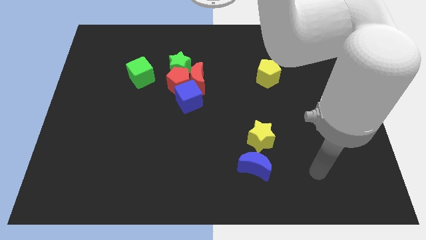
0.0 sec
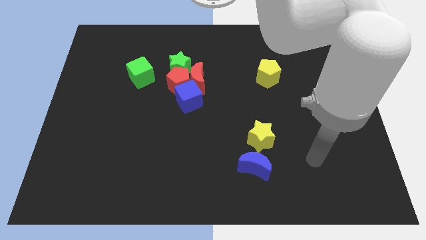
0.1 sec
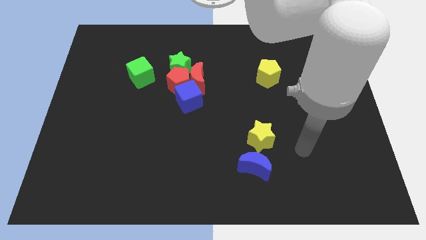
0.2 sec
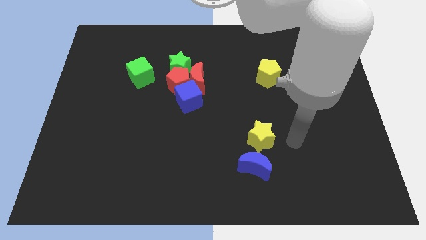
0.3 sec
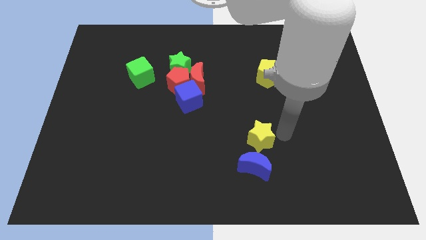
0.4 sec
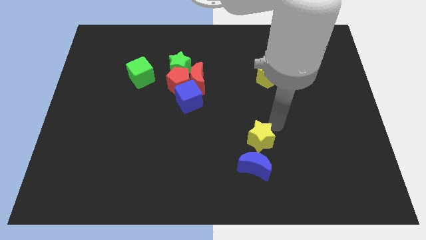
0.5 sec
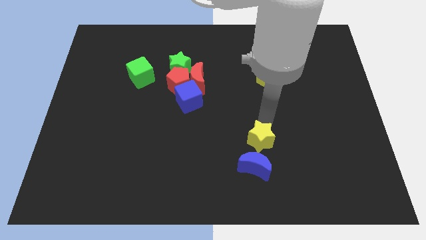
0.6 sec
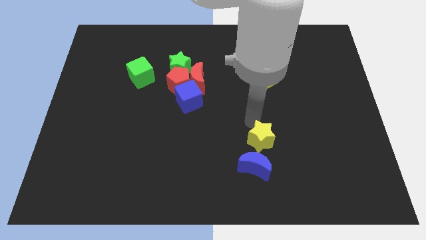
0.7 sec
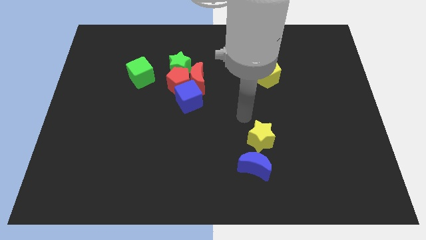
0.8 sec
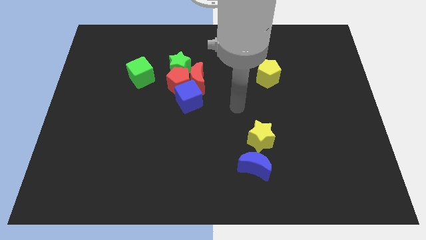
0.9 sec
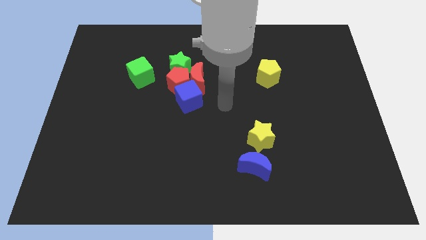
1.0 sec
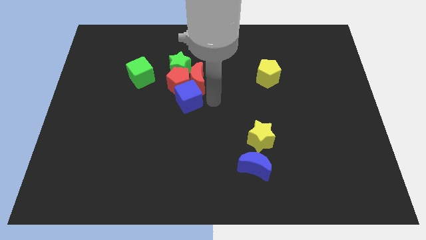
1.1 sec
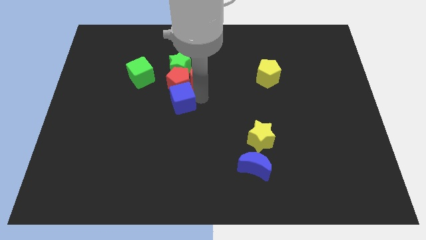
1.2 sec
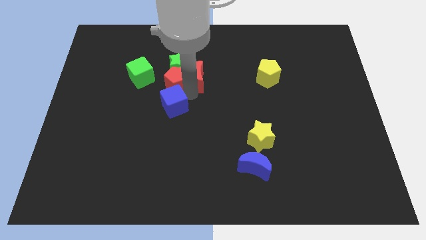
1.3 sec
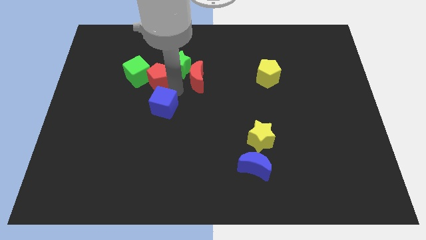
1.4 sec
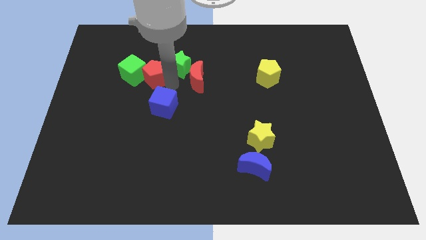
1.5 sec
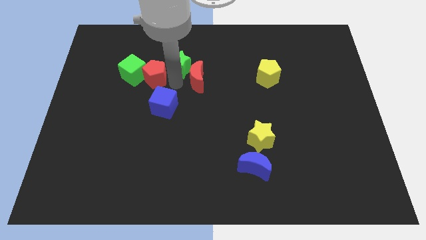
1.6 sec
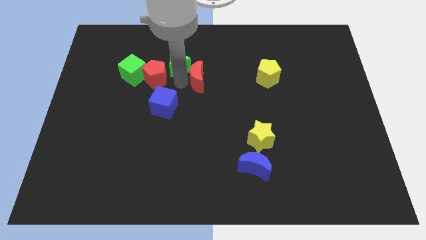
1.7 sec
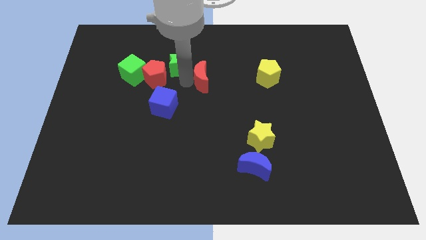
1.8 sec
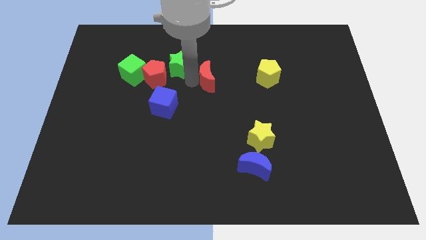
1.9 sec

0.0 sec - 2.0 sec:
pull the red moon apart from the group

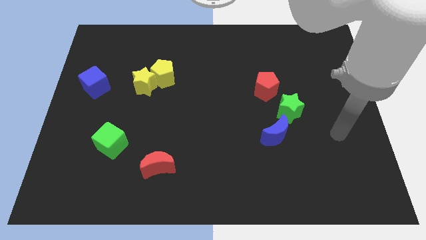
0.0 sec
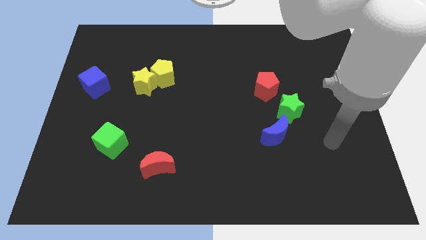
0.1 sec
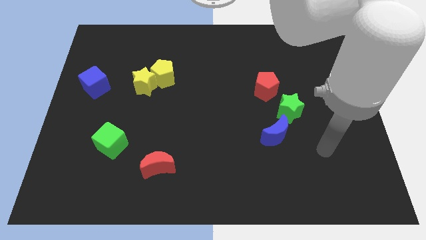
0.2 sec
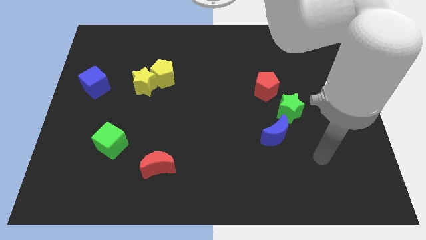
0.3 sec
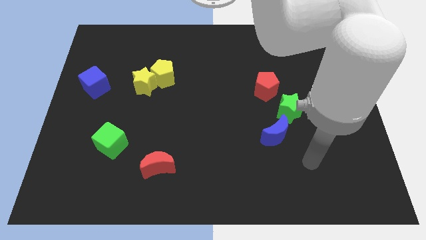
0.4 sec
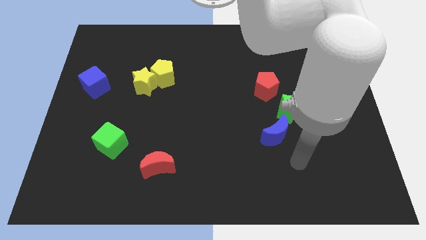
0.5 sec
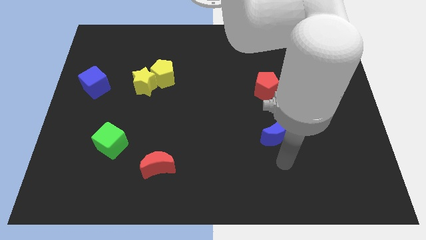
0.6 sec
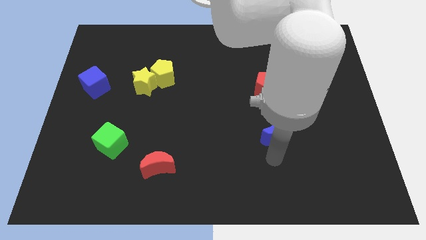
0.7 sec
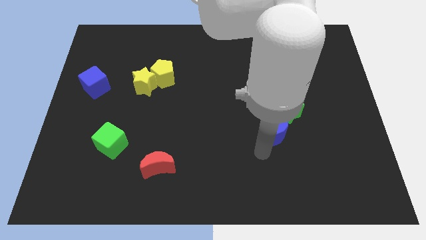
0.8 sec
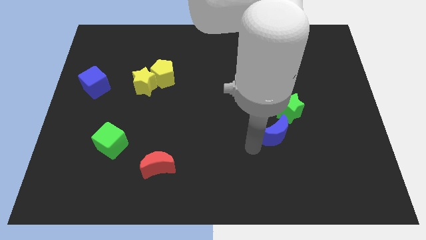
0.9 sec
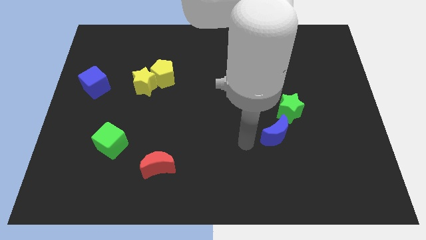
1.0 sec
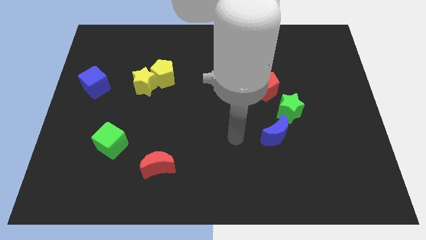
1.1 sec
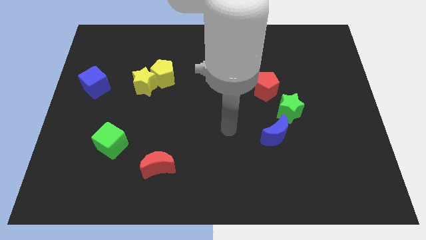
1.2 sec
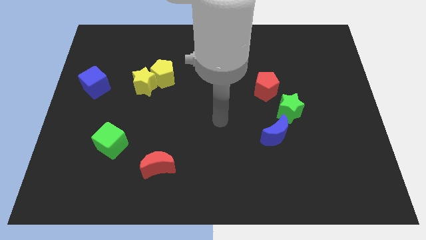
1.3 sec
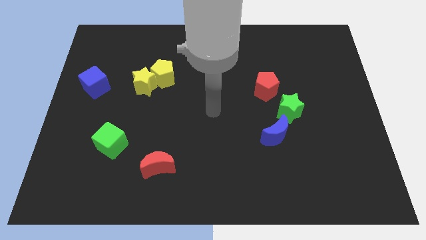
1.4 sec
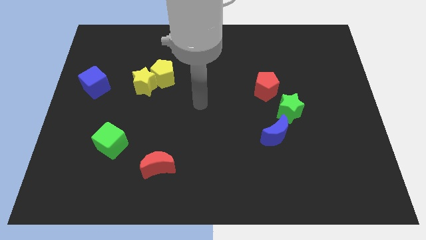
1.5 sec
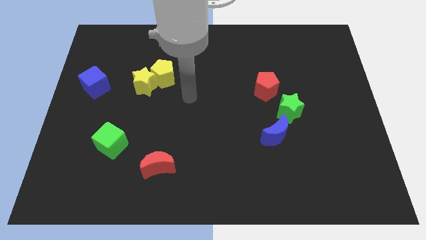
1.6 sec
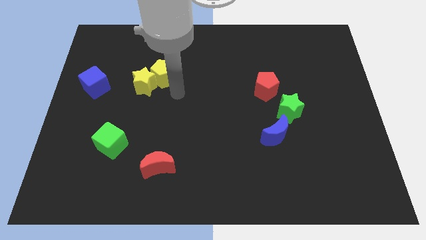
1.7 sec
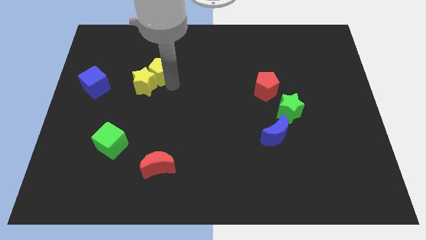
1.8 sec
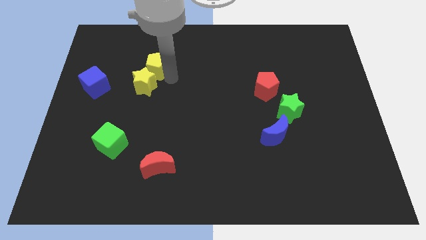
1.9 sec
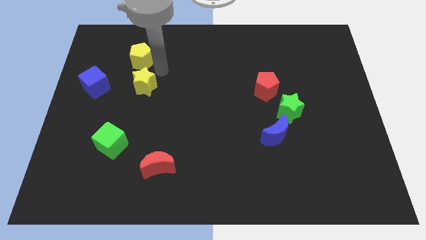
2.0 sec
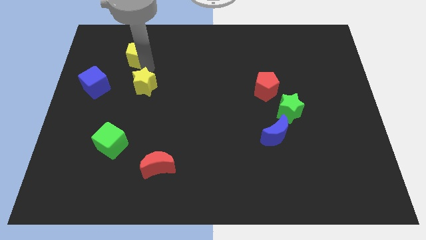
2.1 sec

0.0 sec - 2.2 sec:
separate the yellow star from the yellow pentagon

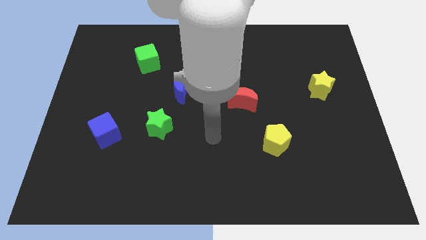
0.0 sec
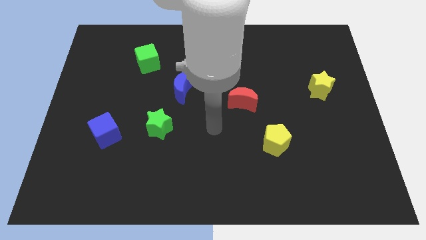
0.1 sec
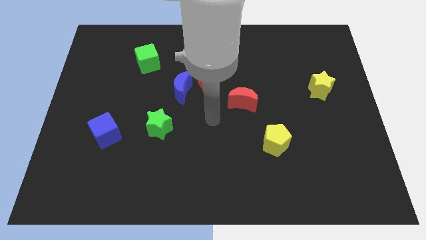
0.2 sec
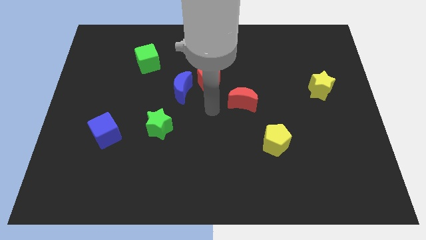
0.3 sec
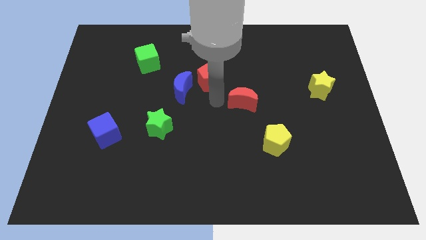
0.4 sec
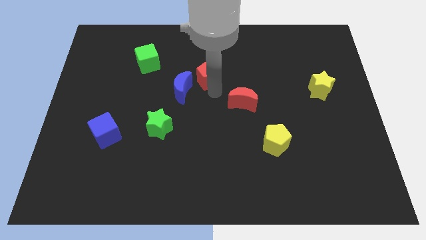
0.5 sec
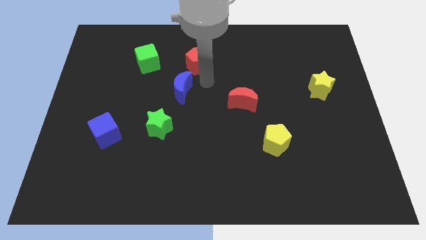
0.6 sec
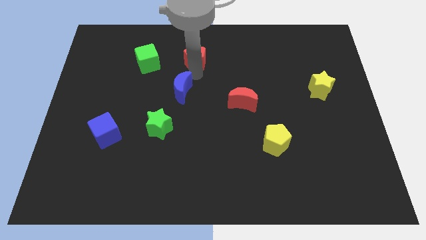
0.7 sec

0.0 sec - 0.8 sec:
move the blue moon away from the red pentagon

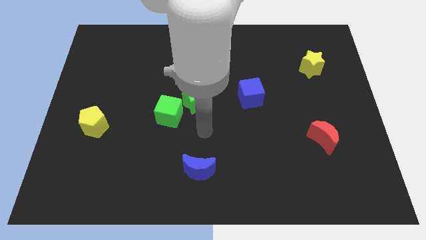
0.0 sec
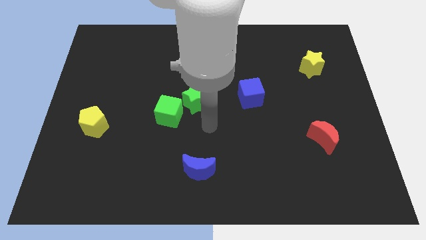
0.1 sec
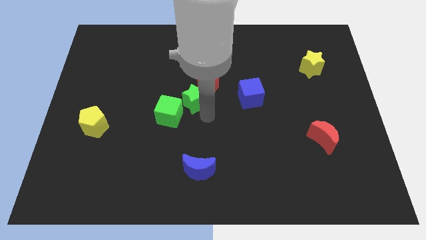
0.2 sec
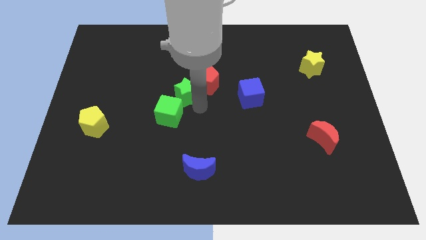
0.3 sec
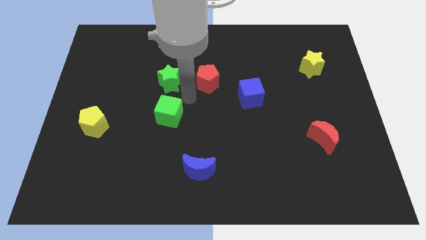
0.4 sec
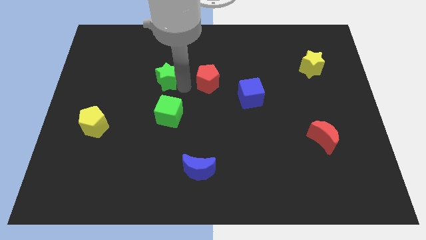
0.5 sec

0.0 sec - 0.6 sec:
separate the red pentagon from the green star

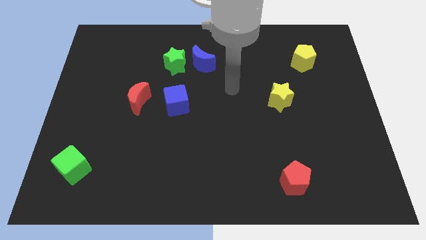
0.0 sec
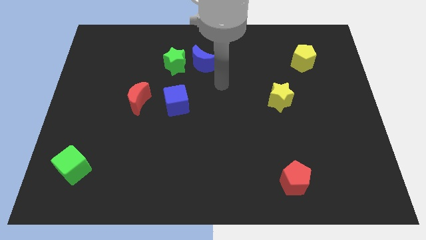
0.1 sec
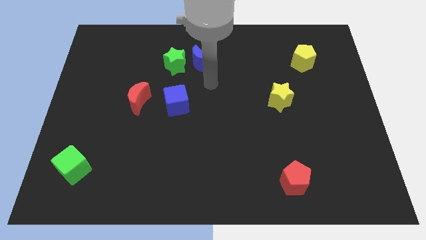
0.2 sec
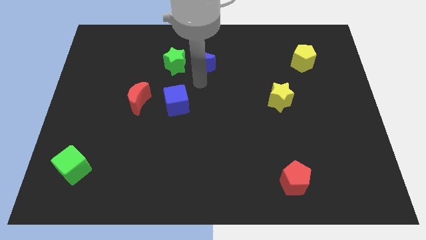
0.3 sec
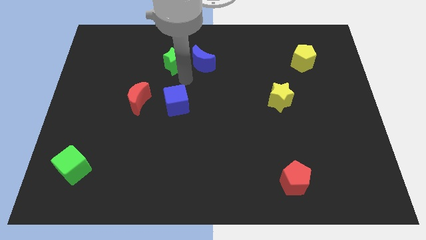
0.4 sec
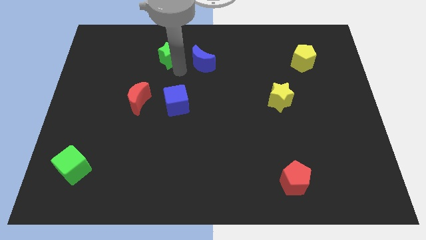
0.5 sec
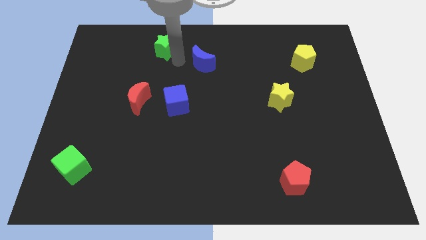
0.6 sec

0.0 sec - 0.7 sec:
move the blue moon away from the green star

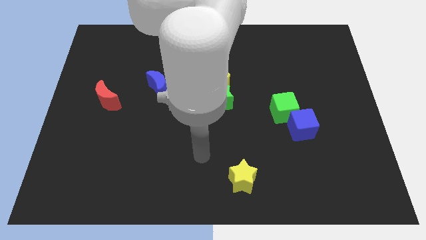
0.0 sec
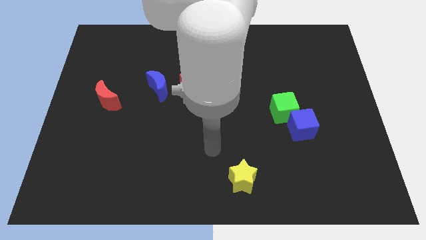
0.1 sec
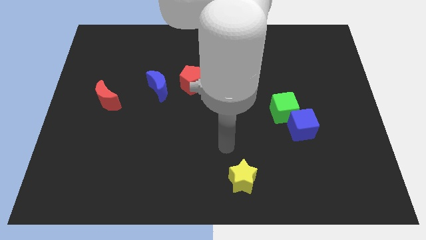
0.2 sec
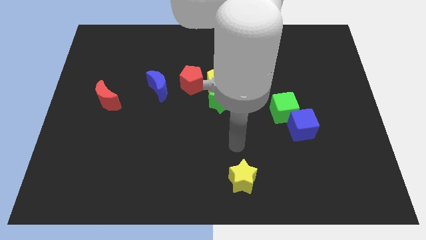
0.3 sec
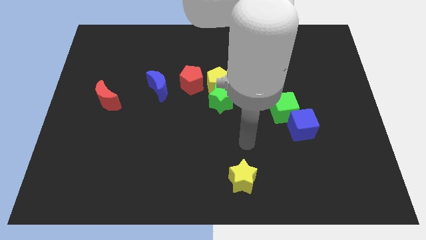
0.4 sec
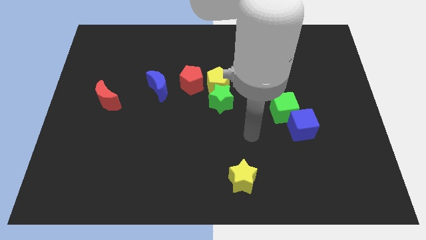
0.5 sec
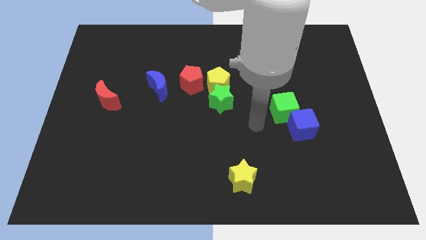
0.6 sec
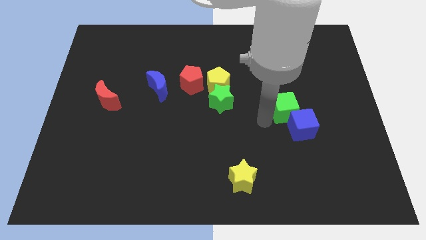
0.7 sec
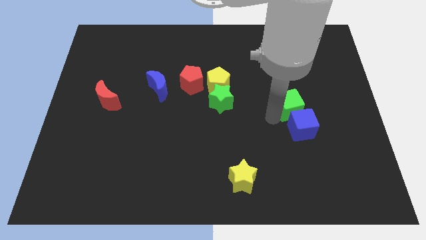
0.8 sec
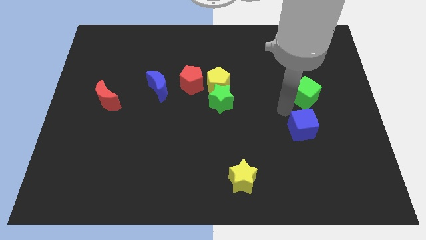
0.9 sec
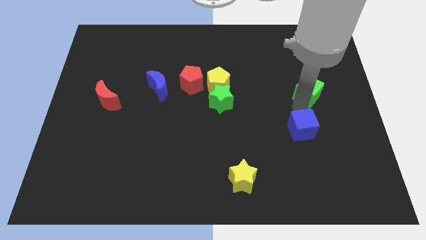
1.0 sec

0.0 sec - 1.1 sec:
pull the blue cube apart from the green cube

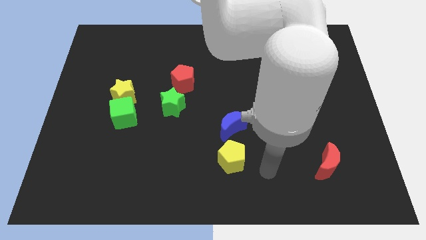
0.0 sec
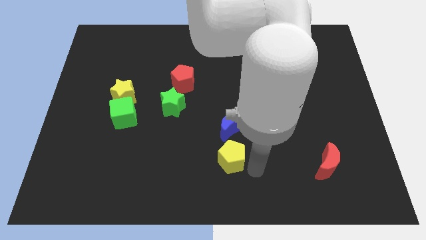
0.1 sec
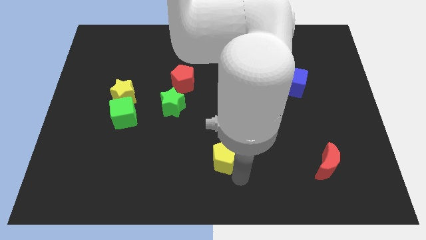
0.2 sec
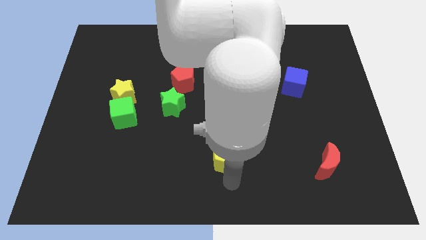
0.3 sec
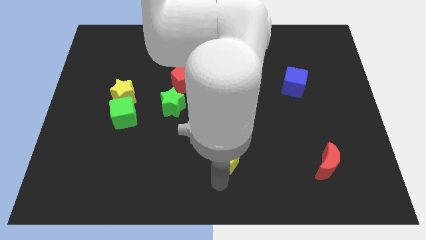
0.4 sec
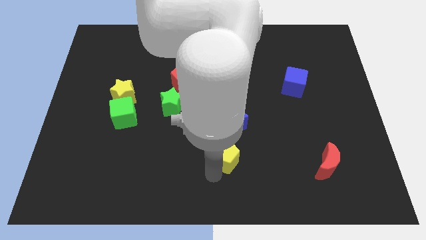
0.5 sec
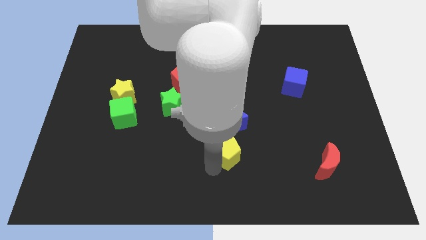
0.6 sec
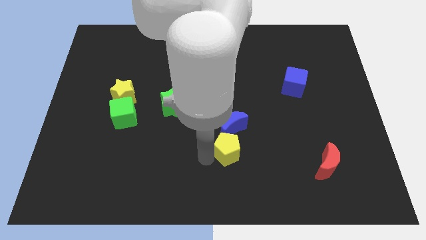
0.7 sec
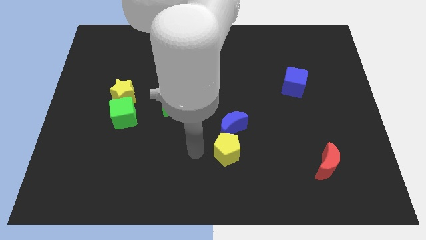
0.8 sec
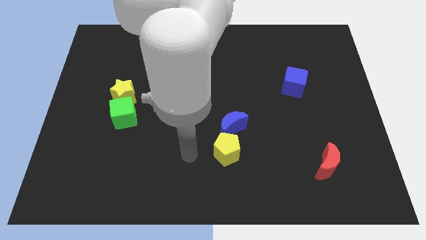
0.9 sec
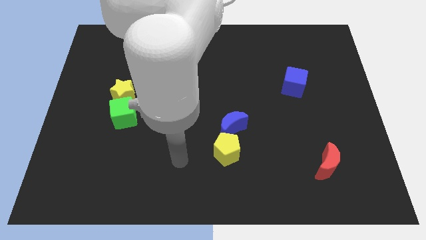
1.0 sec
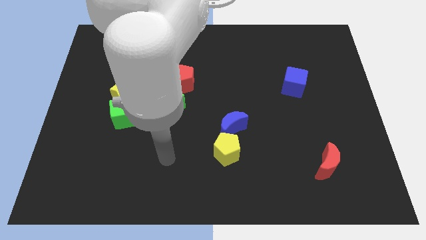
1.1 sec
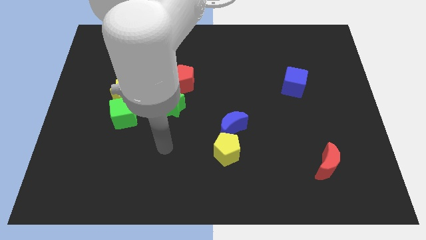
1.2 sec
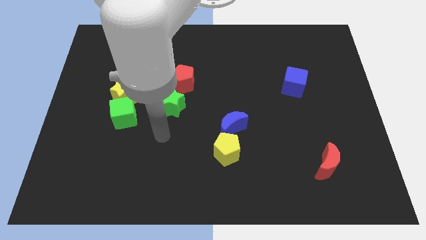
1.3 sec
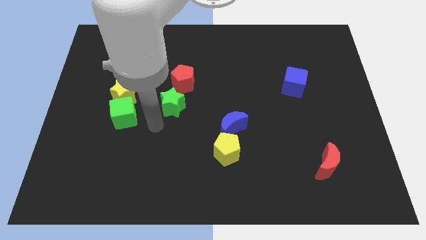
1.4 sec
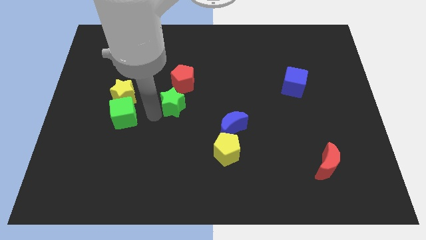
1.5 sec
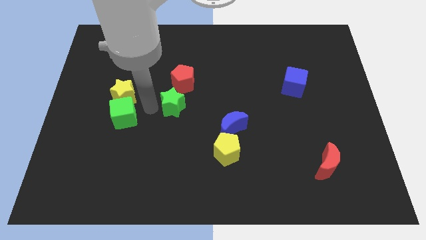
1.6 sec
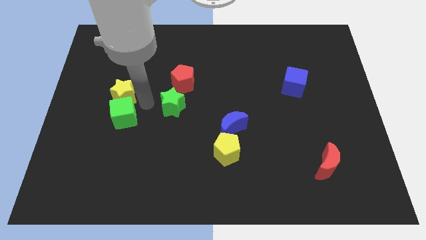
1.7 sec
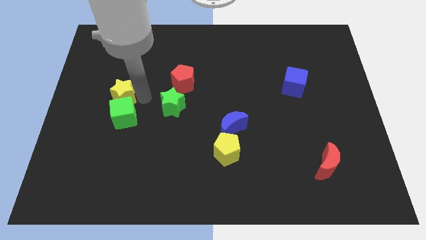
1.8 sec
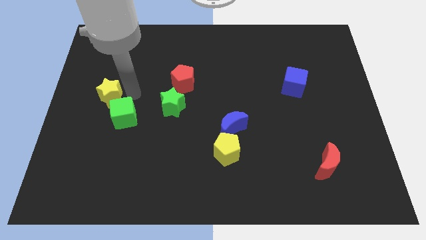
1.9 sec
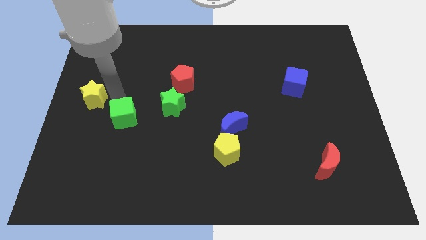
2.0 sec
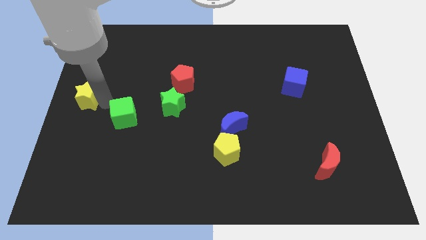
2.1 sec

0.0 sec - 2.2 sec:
move the green cube away from the yellow star
